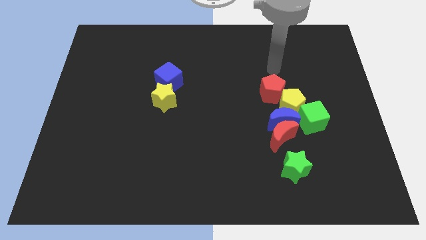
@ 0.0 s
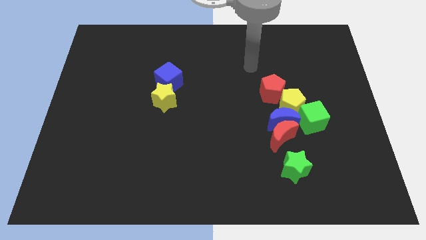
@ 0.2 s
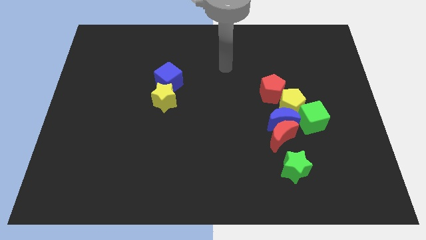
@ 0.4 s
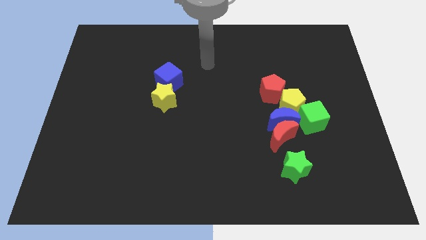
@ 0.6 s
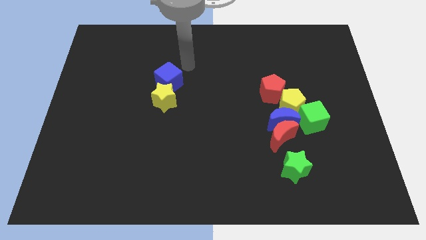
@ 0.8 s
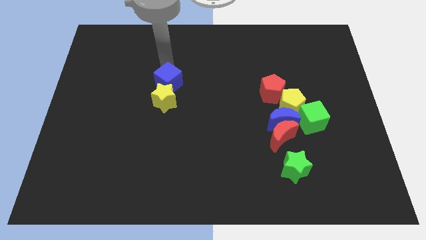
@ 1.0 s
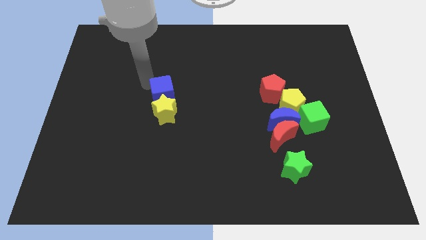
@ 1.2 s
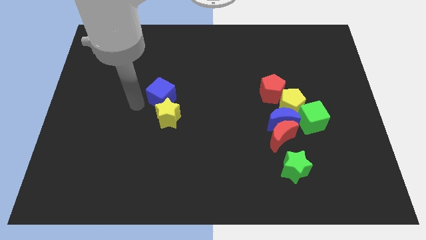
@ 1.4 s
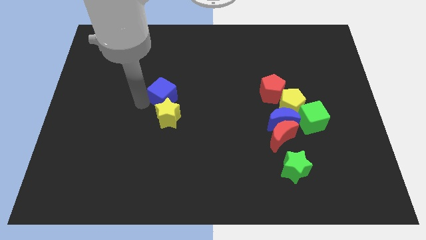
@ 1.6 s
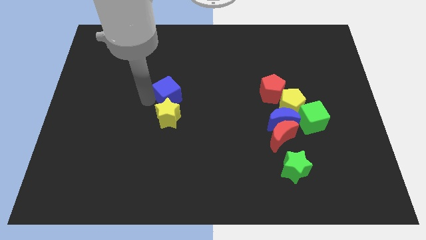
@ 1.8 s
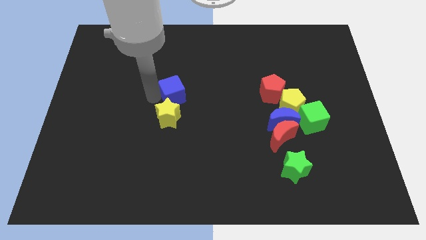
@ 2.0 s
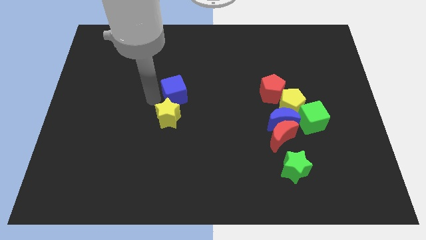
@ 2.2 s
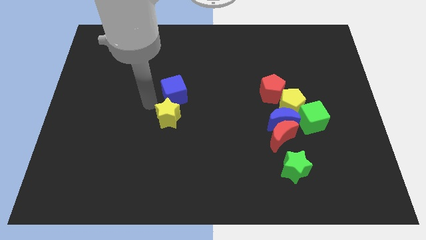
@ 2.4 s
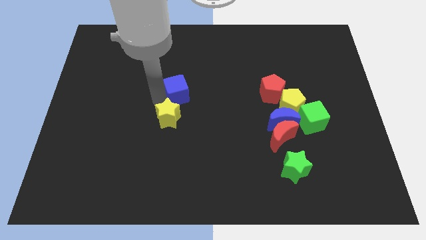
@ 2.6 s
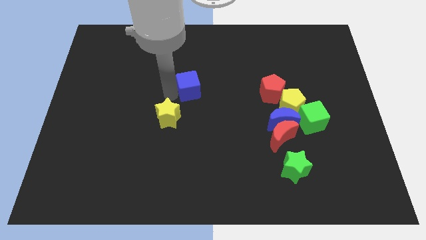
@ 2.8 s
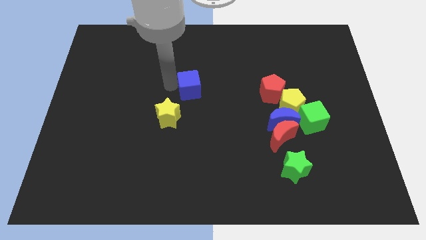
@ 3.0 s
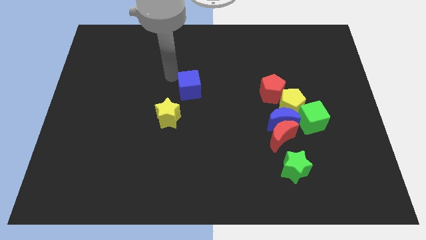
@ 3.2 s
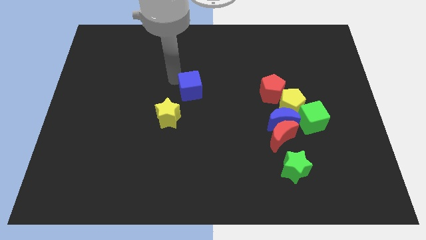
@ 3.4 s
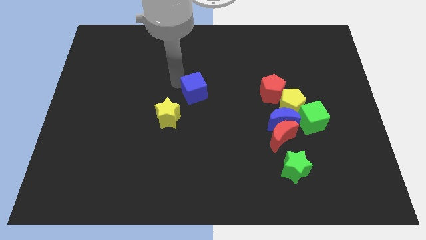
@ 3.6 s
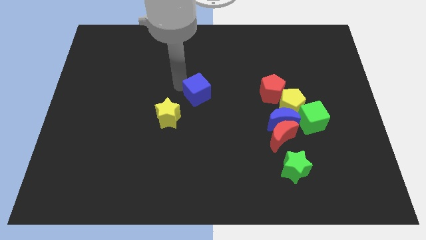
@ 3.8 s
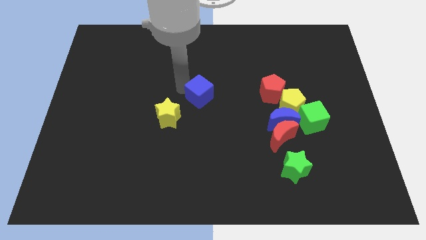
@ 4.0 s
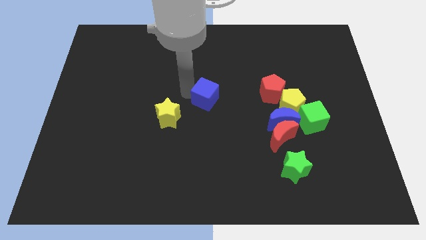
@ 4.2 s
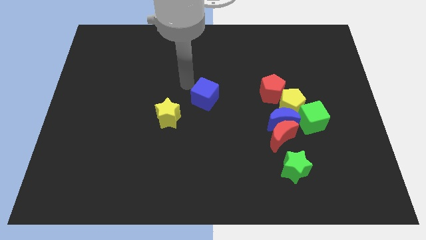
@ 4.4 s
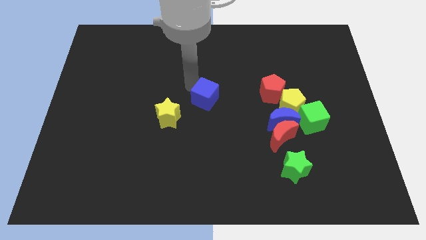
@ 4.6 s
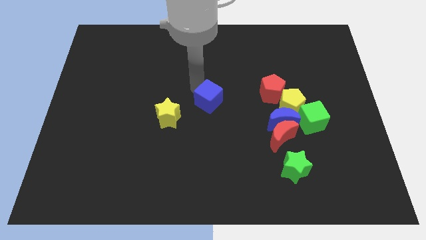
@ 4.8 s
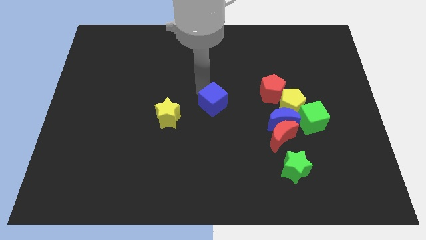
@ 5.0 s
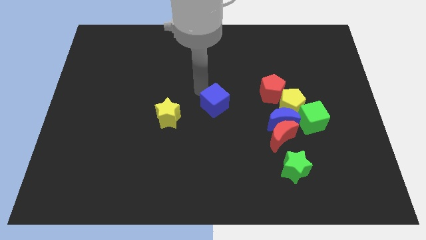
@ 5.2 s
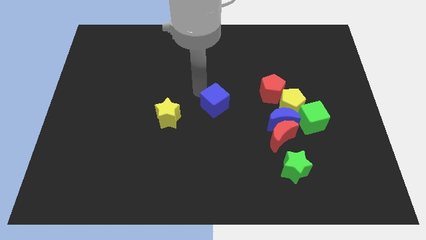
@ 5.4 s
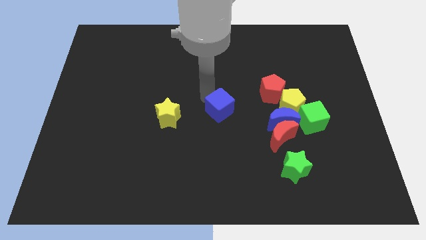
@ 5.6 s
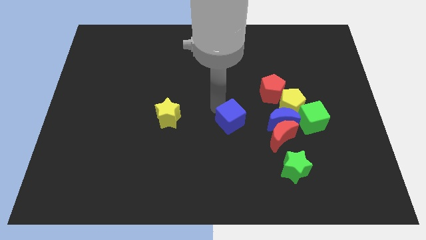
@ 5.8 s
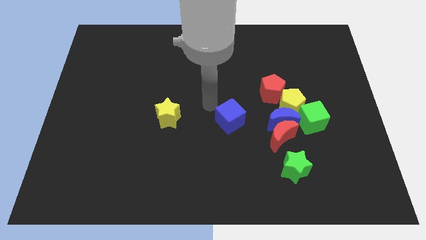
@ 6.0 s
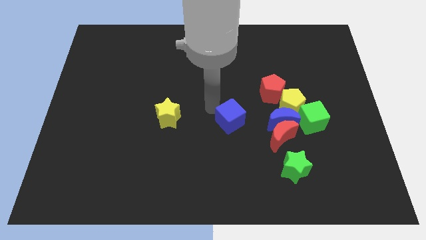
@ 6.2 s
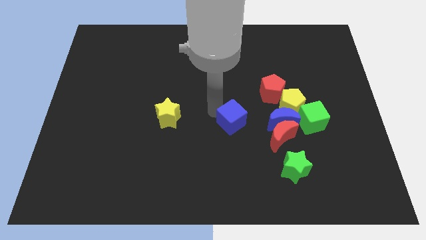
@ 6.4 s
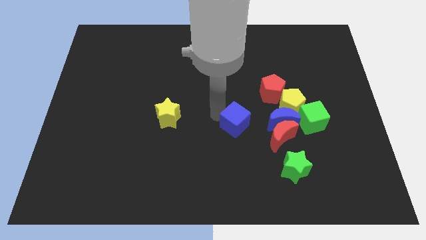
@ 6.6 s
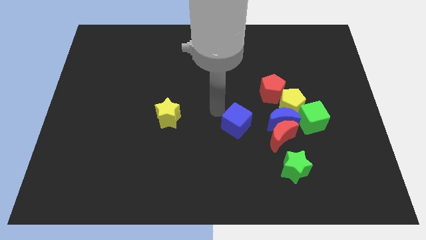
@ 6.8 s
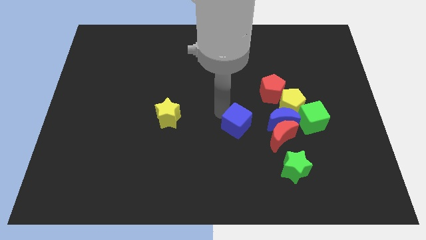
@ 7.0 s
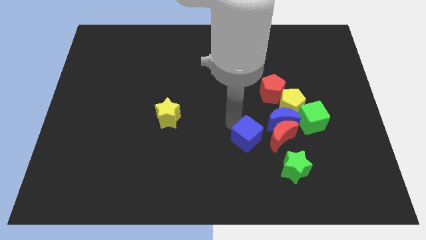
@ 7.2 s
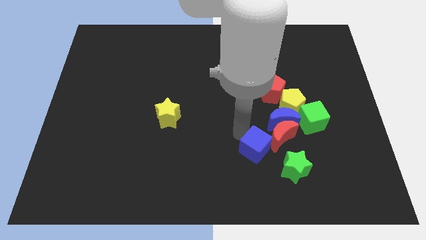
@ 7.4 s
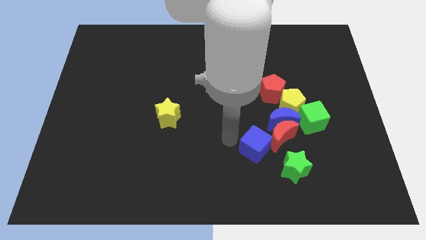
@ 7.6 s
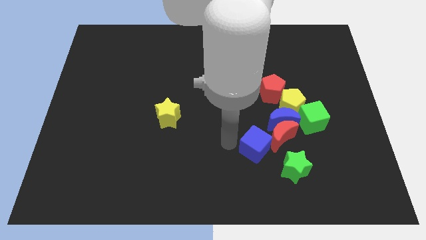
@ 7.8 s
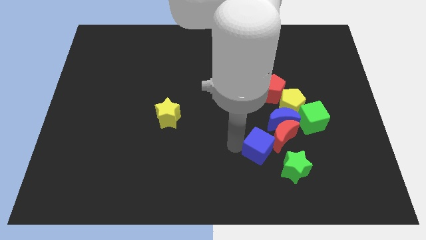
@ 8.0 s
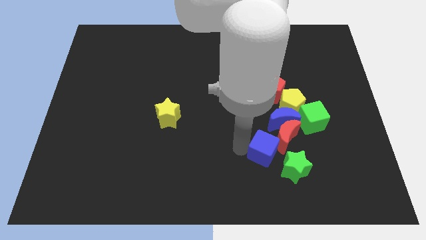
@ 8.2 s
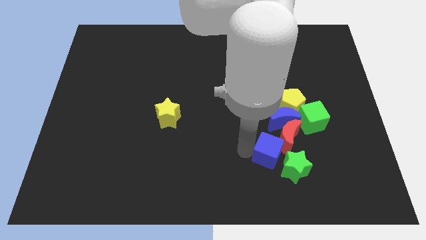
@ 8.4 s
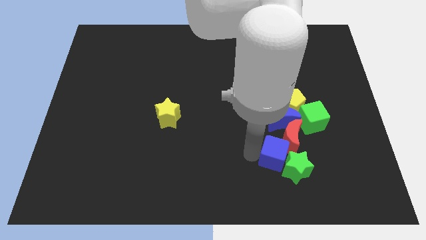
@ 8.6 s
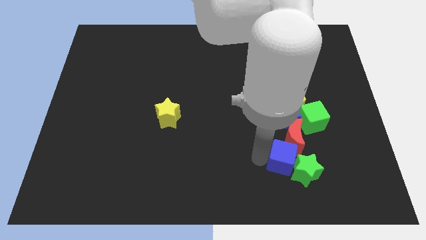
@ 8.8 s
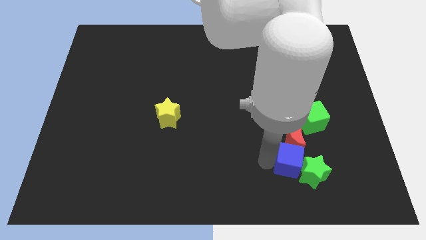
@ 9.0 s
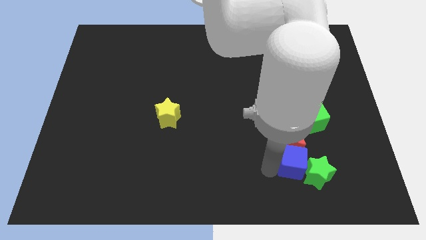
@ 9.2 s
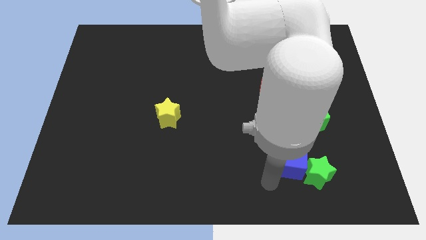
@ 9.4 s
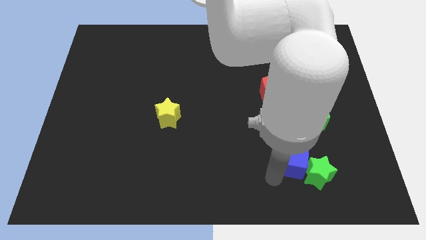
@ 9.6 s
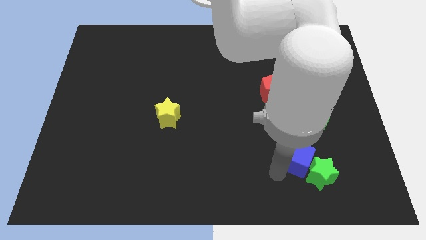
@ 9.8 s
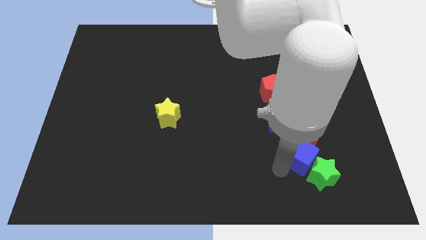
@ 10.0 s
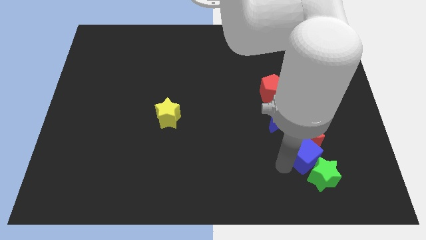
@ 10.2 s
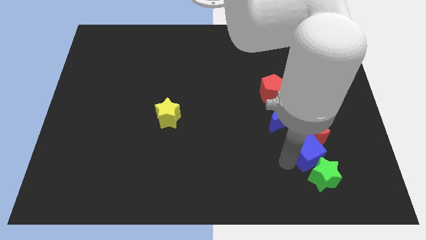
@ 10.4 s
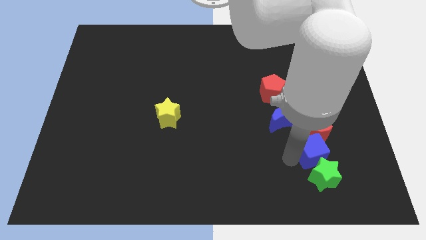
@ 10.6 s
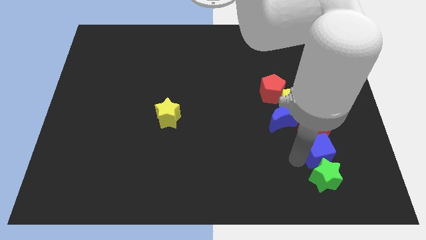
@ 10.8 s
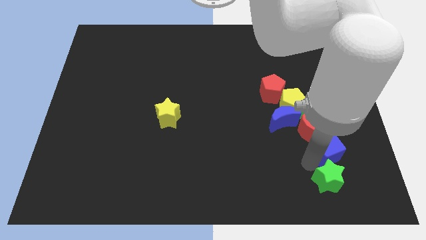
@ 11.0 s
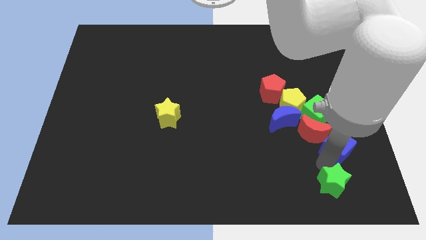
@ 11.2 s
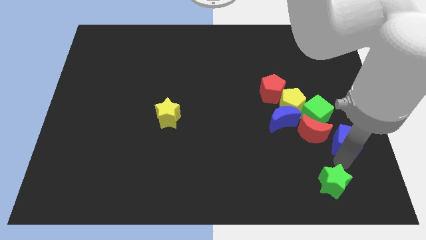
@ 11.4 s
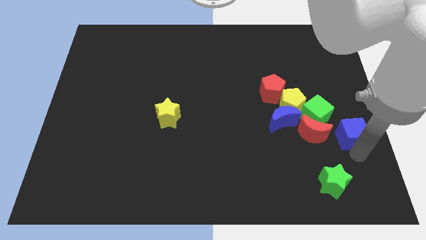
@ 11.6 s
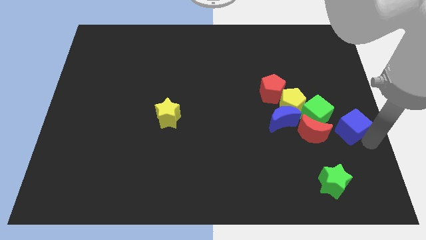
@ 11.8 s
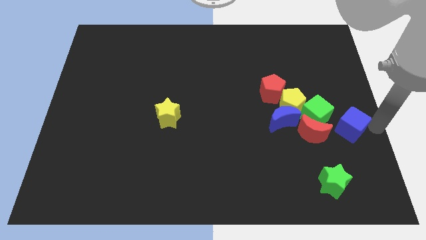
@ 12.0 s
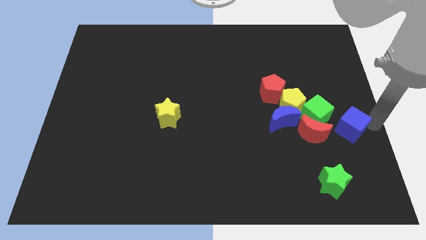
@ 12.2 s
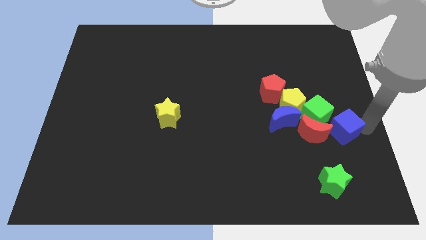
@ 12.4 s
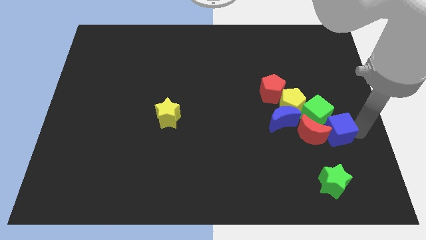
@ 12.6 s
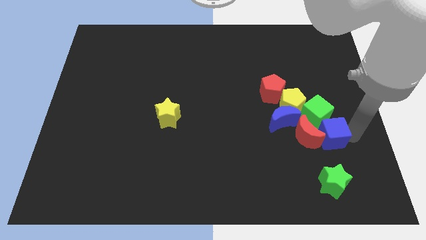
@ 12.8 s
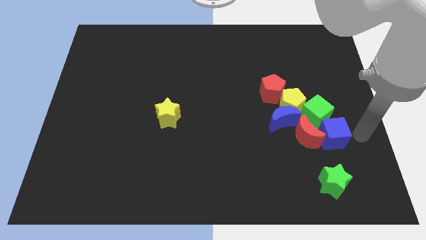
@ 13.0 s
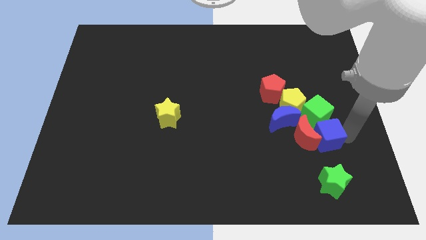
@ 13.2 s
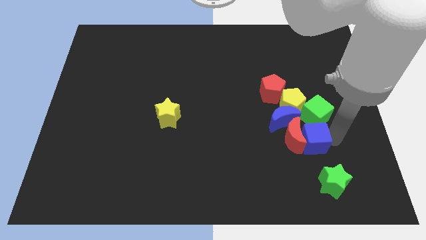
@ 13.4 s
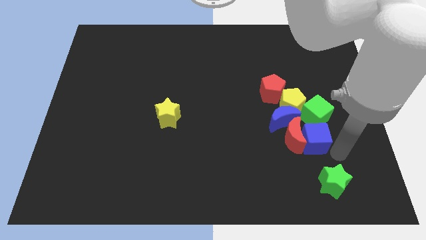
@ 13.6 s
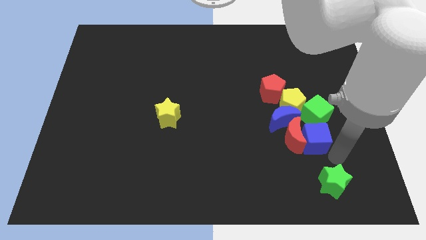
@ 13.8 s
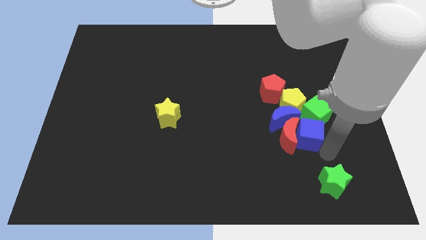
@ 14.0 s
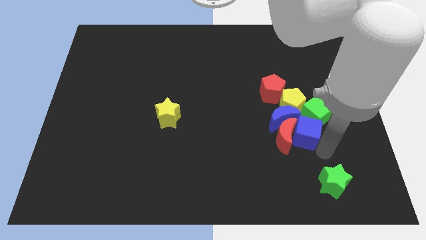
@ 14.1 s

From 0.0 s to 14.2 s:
push the blue cube towards the blue moon
